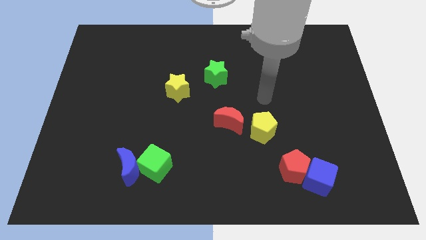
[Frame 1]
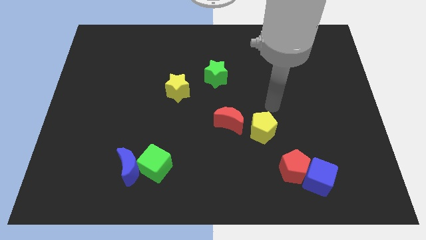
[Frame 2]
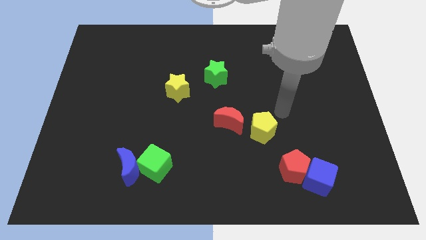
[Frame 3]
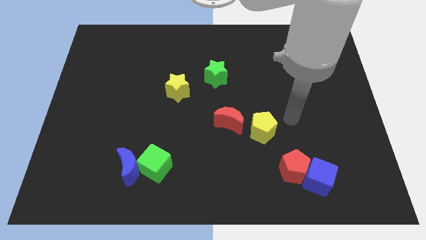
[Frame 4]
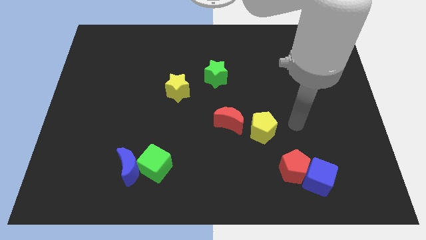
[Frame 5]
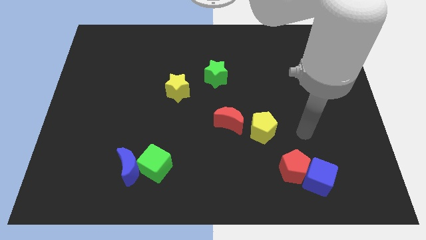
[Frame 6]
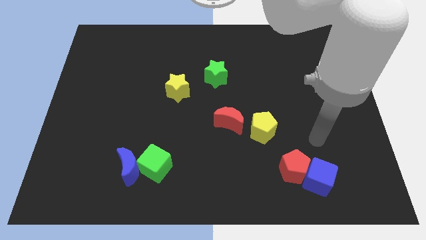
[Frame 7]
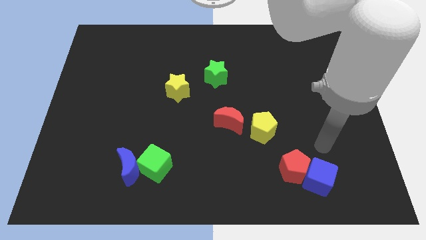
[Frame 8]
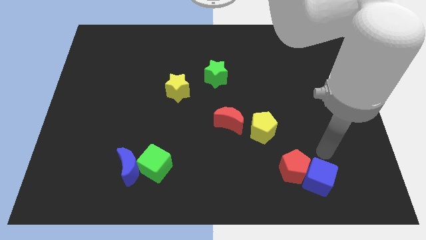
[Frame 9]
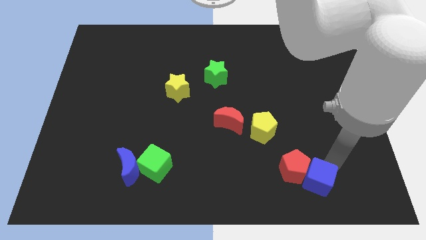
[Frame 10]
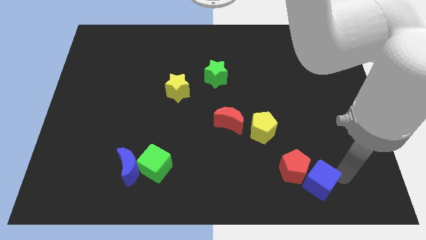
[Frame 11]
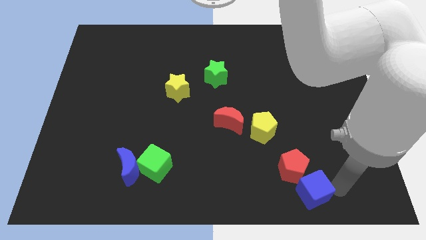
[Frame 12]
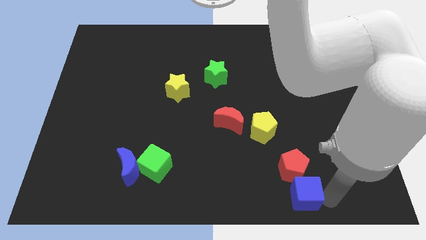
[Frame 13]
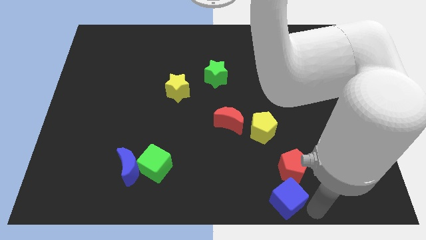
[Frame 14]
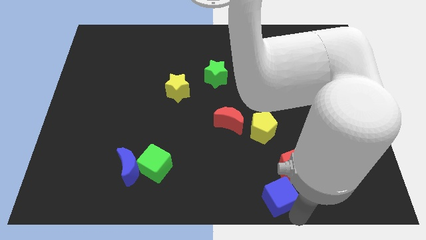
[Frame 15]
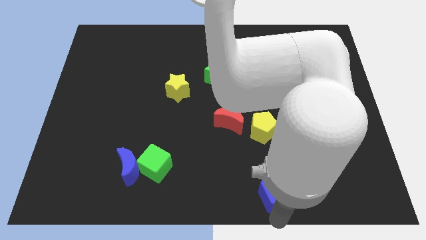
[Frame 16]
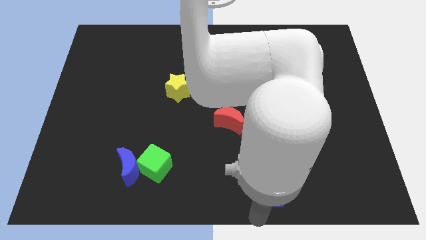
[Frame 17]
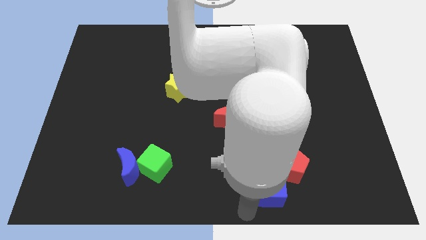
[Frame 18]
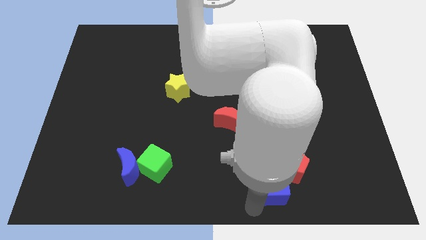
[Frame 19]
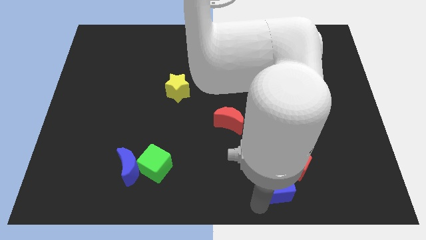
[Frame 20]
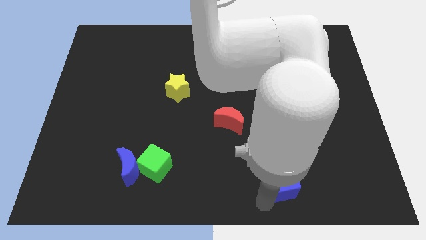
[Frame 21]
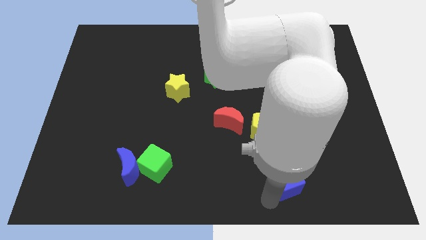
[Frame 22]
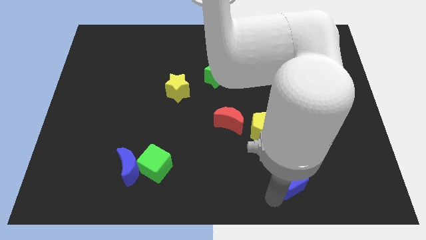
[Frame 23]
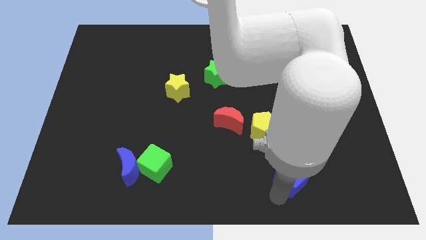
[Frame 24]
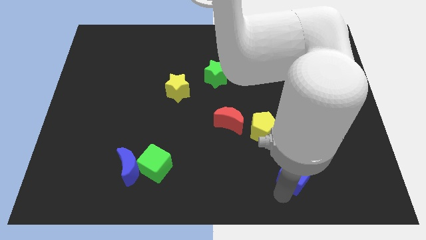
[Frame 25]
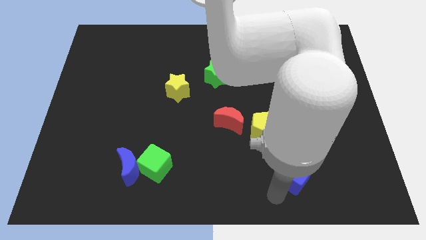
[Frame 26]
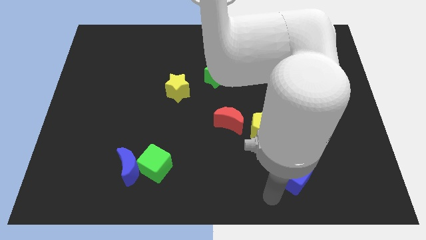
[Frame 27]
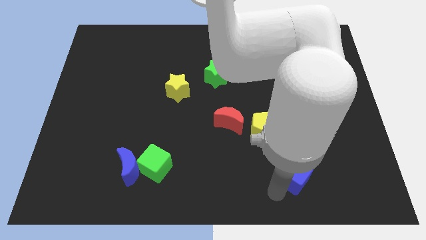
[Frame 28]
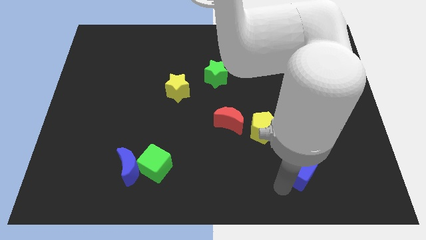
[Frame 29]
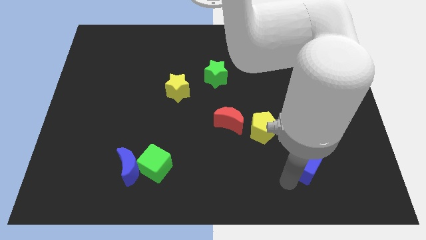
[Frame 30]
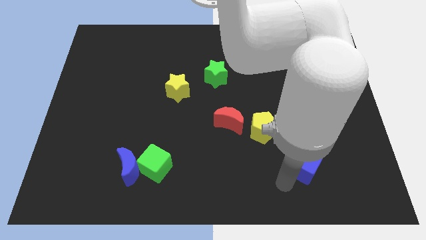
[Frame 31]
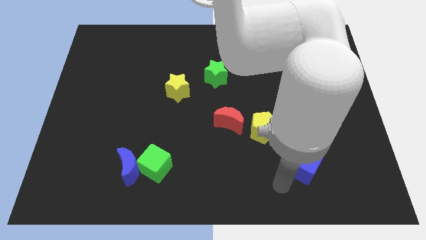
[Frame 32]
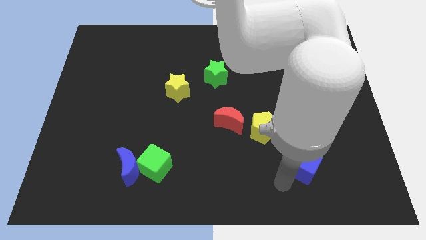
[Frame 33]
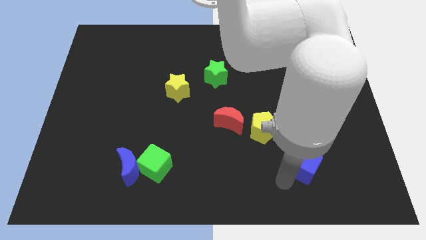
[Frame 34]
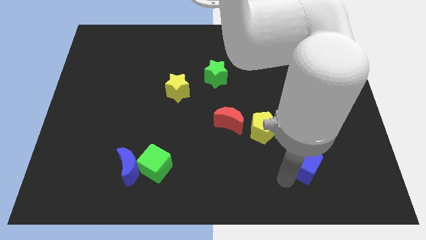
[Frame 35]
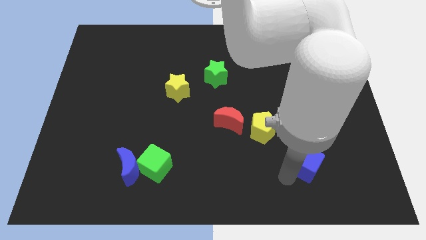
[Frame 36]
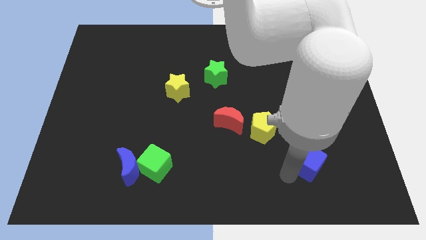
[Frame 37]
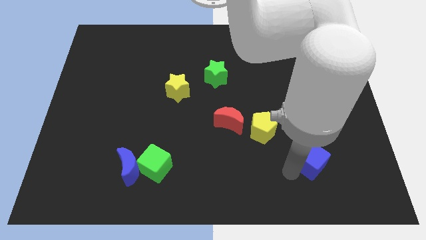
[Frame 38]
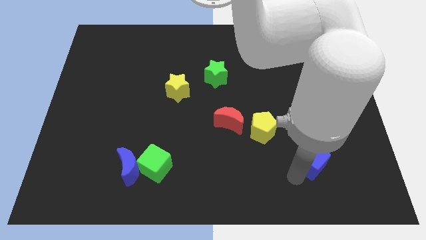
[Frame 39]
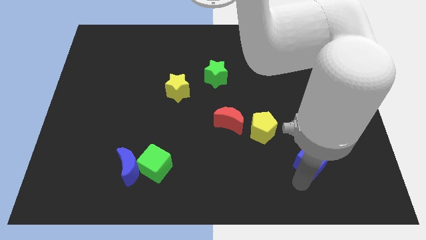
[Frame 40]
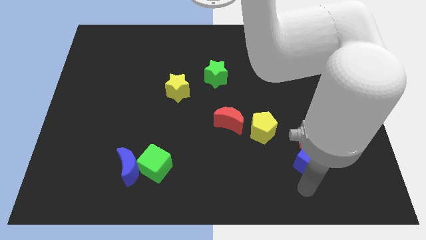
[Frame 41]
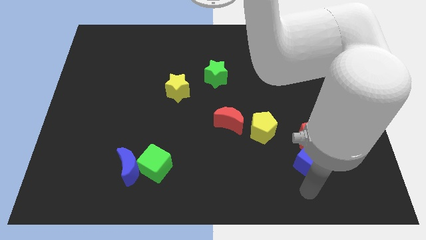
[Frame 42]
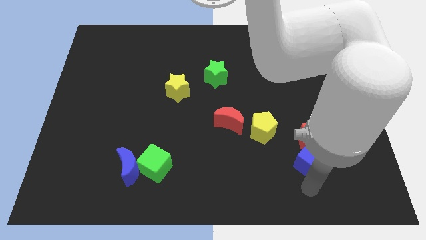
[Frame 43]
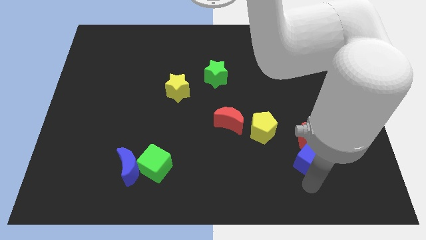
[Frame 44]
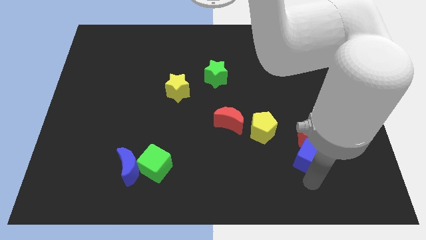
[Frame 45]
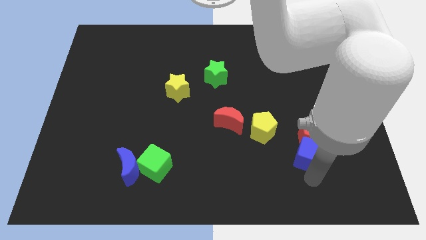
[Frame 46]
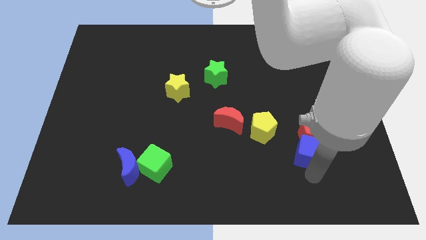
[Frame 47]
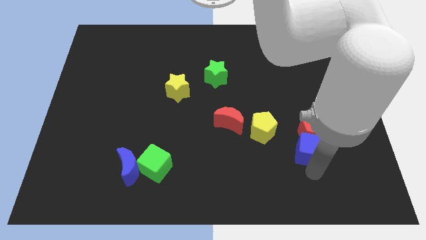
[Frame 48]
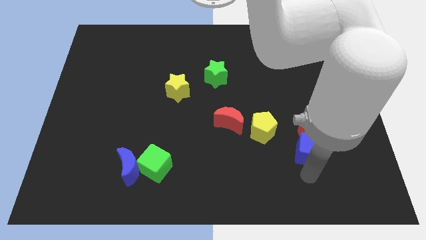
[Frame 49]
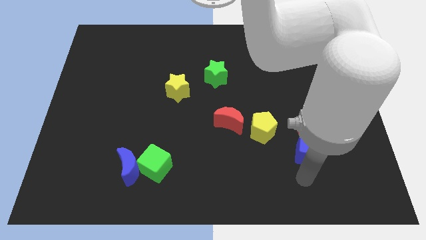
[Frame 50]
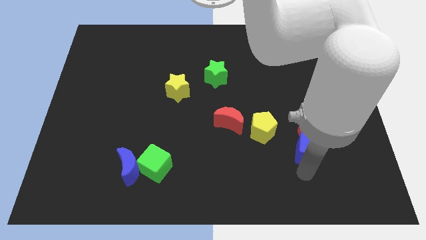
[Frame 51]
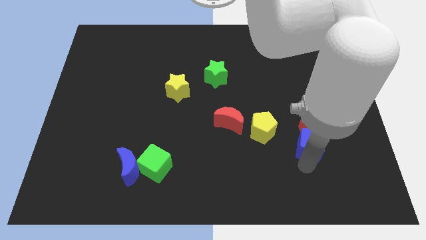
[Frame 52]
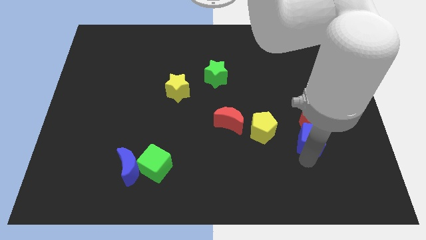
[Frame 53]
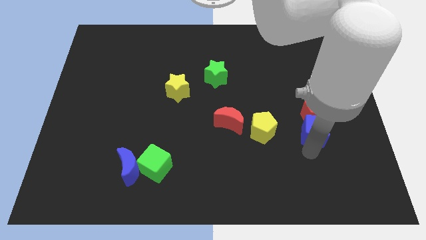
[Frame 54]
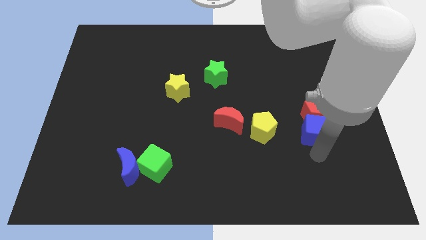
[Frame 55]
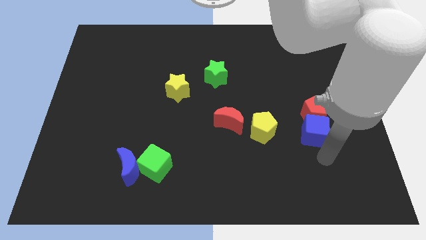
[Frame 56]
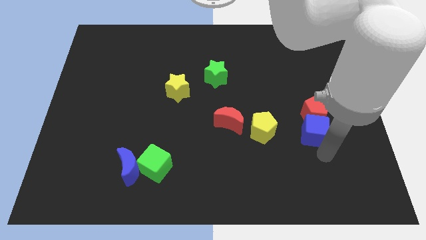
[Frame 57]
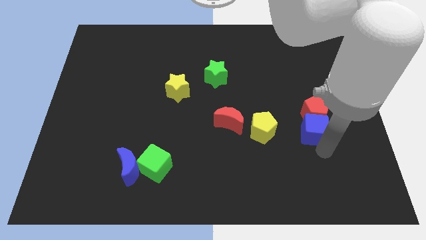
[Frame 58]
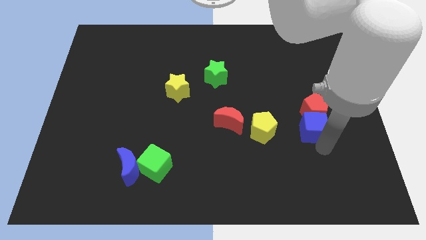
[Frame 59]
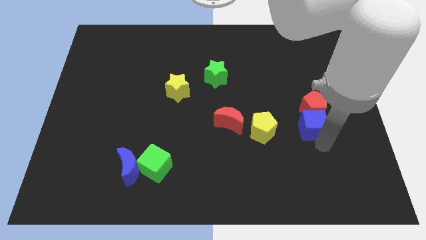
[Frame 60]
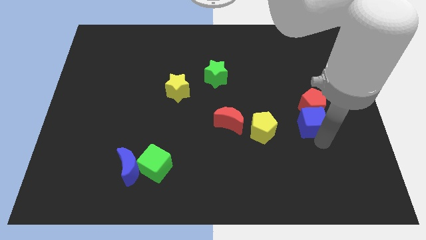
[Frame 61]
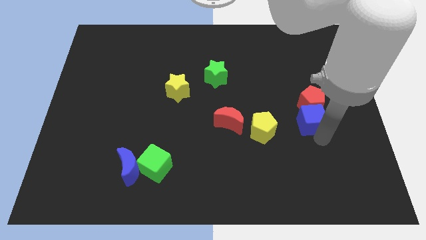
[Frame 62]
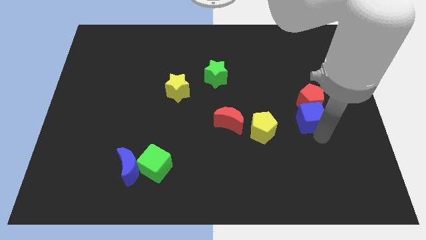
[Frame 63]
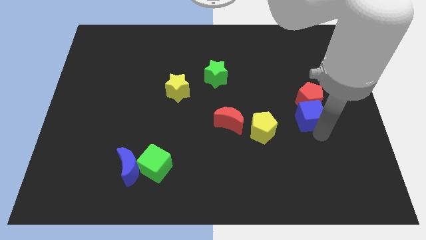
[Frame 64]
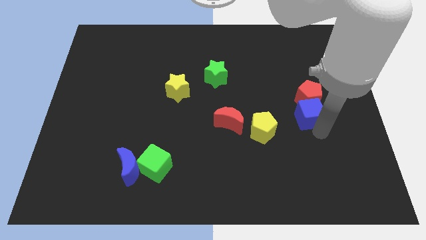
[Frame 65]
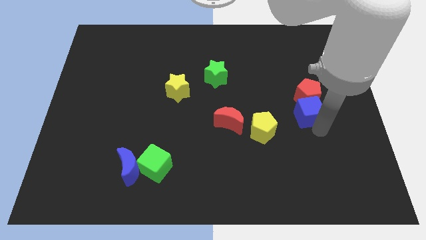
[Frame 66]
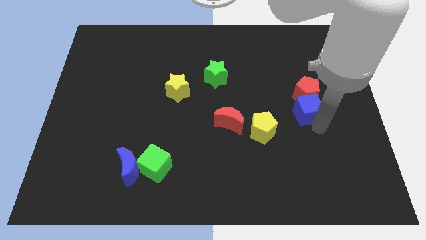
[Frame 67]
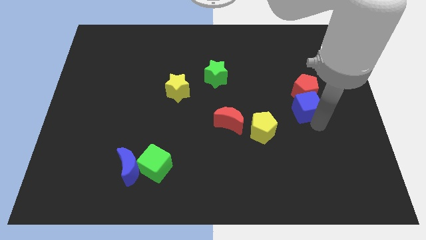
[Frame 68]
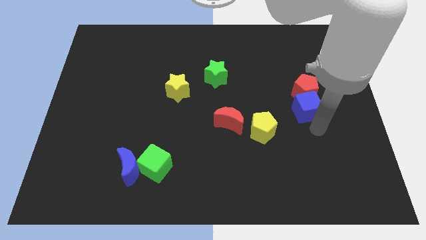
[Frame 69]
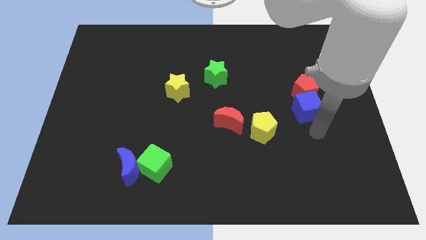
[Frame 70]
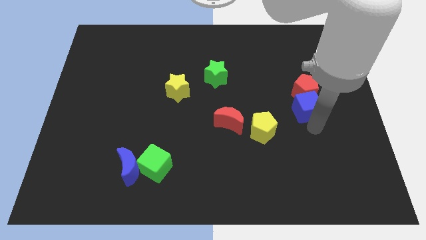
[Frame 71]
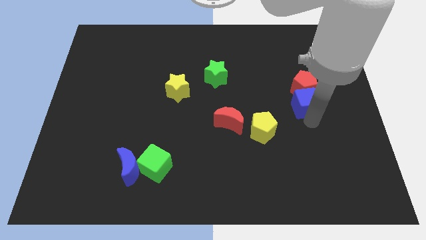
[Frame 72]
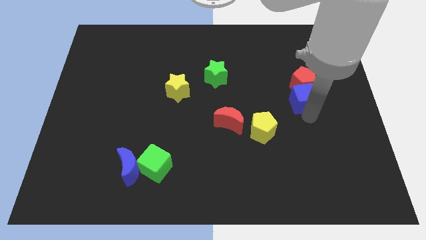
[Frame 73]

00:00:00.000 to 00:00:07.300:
move the blue cube up

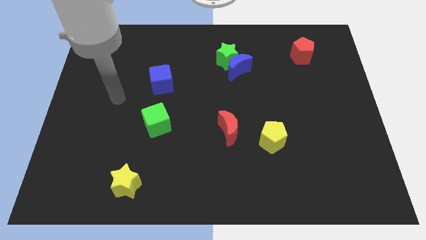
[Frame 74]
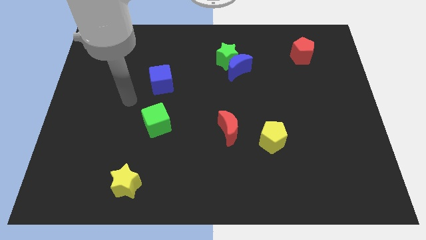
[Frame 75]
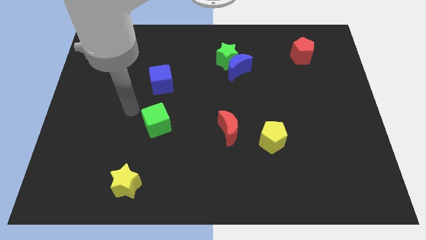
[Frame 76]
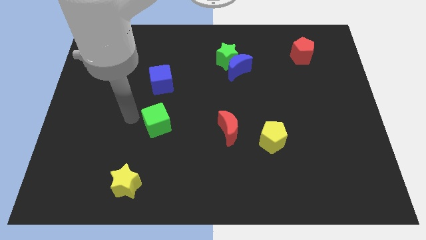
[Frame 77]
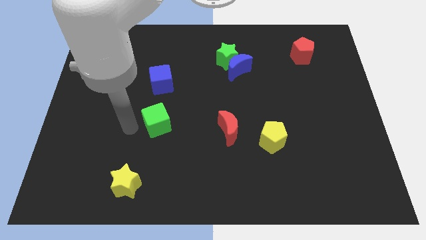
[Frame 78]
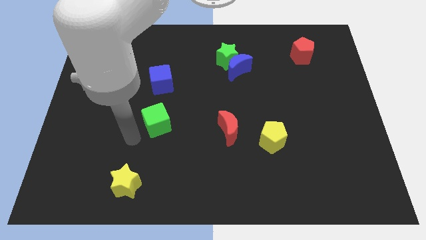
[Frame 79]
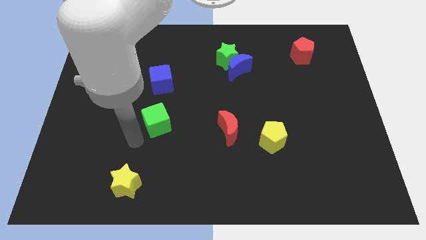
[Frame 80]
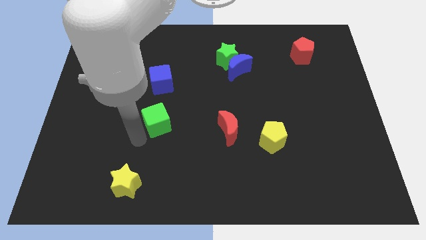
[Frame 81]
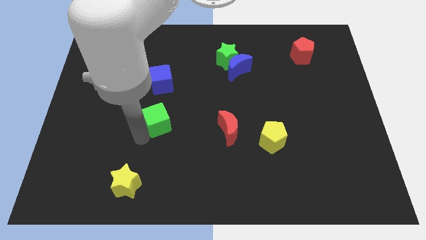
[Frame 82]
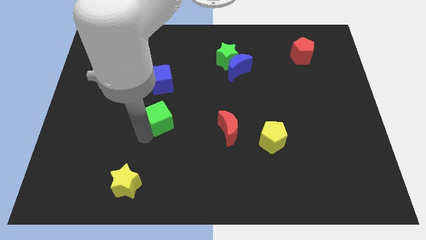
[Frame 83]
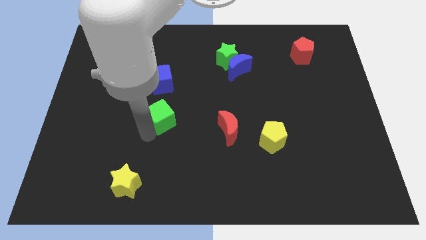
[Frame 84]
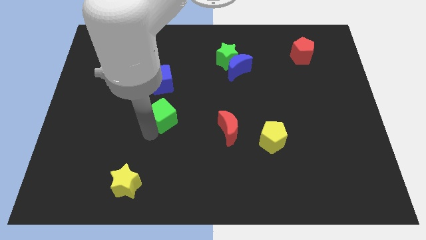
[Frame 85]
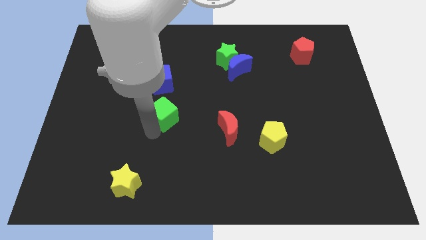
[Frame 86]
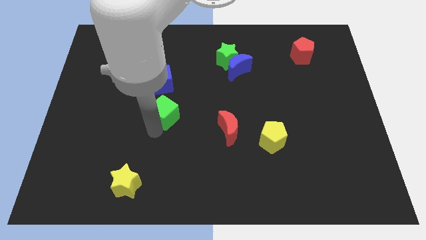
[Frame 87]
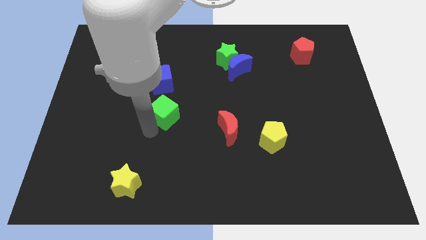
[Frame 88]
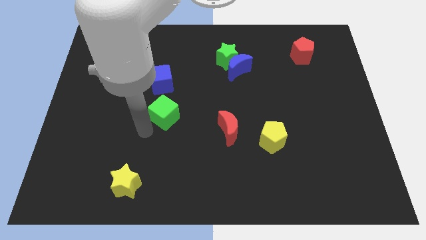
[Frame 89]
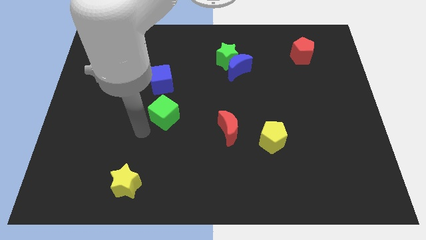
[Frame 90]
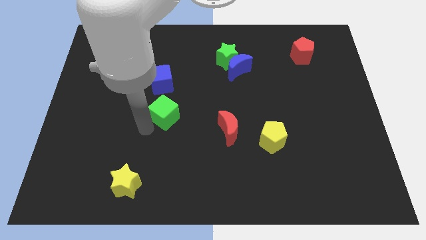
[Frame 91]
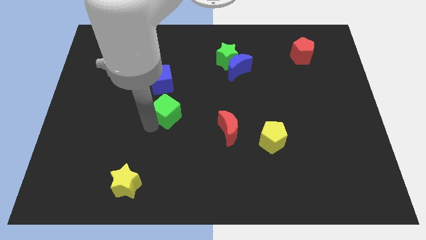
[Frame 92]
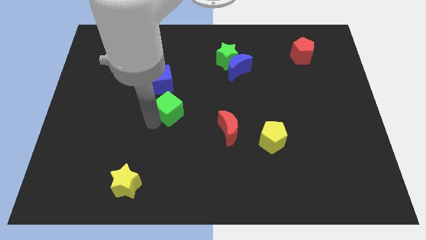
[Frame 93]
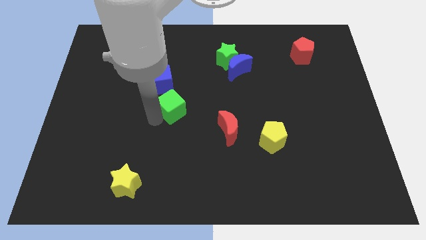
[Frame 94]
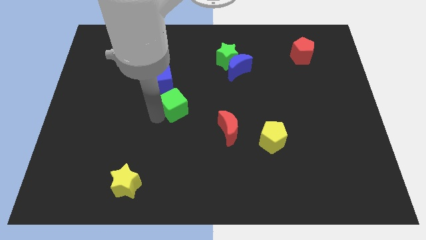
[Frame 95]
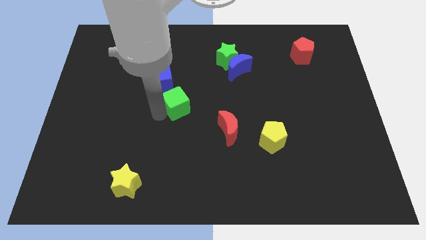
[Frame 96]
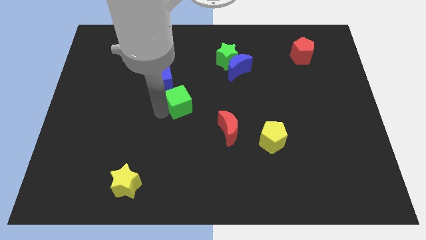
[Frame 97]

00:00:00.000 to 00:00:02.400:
push the green cube upwards and to the right diagonally slightly
